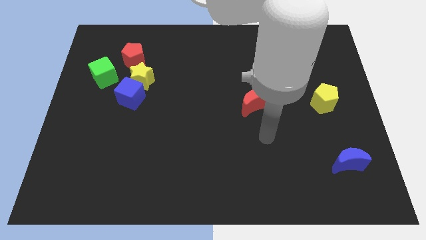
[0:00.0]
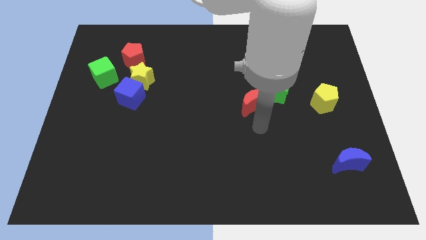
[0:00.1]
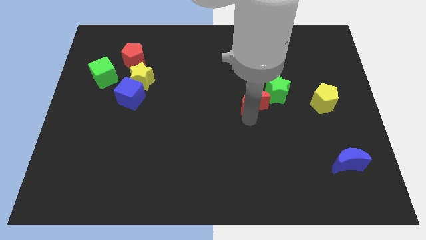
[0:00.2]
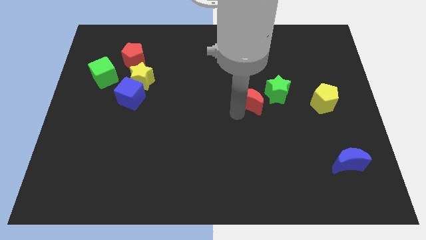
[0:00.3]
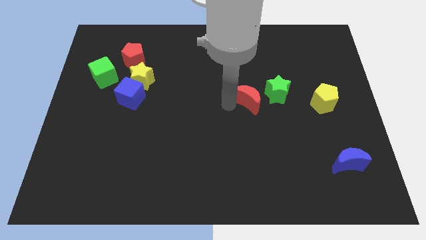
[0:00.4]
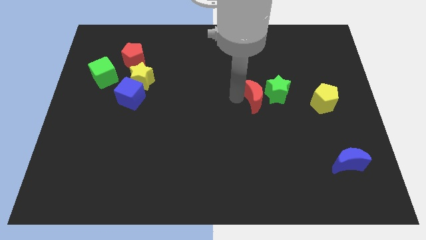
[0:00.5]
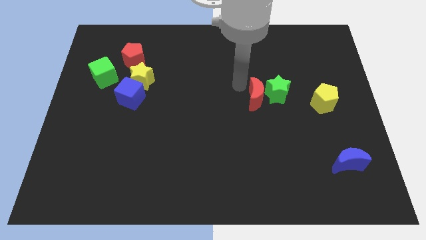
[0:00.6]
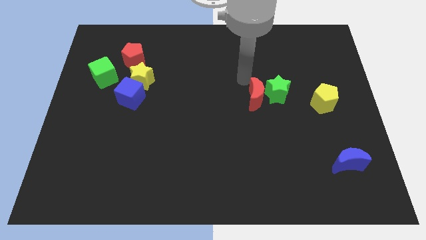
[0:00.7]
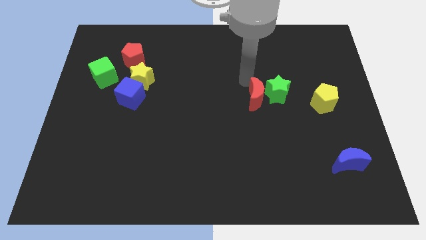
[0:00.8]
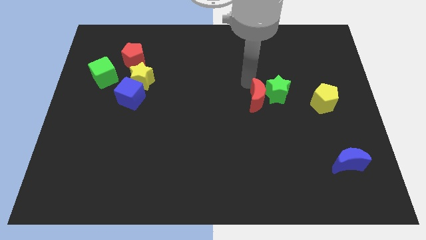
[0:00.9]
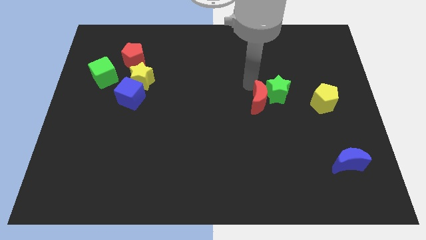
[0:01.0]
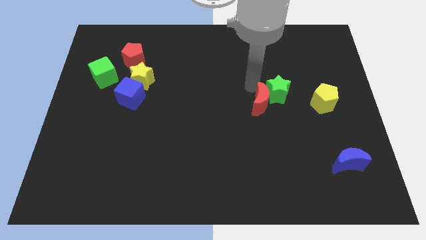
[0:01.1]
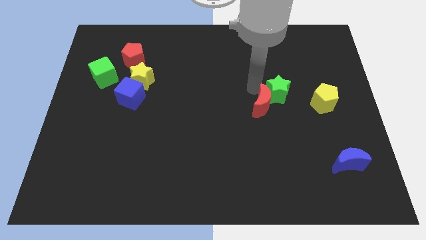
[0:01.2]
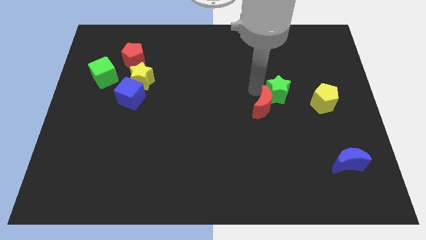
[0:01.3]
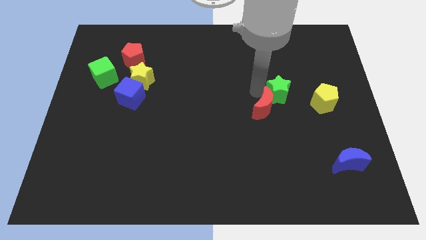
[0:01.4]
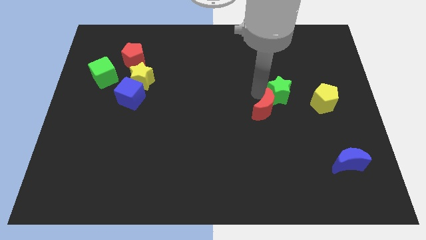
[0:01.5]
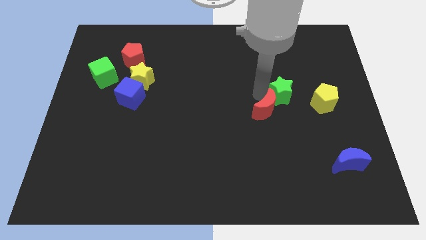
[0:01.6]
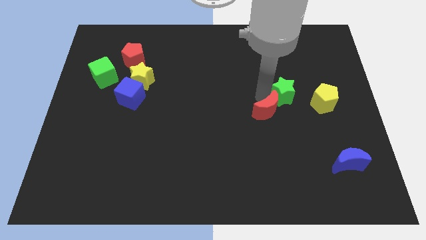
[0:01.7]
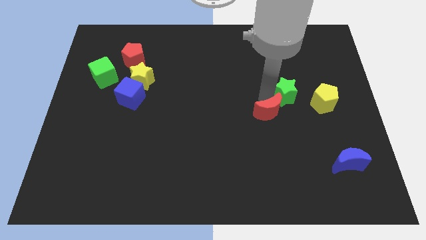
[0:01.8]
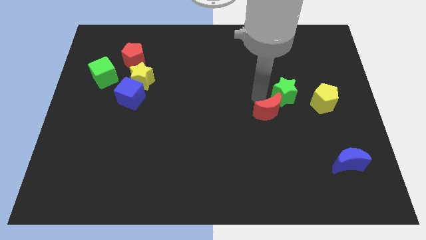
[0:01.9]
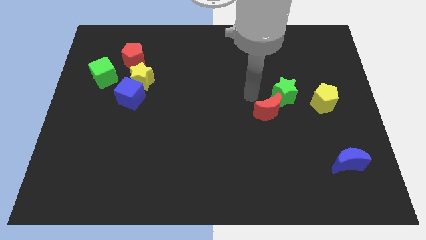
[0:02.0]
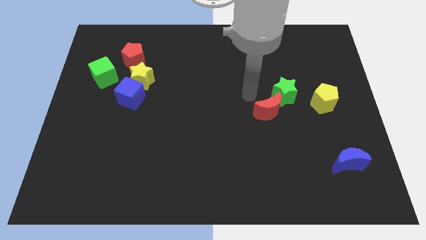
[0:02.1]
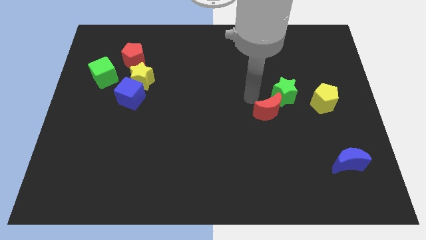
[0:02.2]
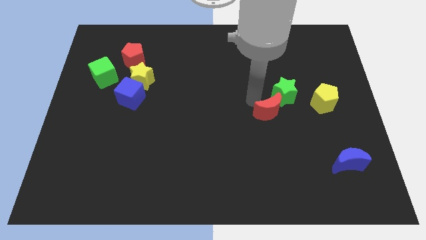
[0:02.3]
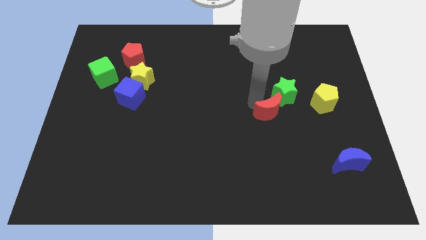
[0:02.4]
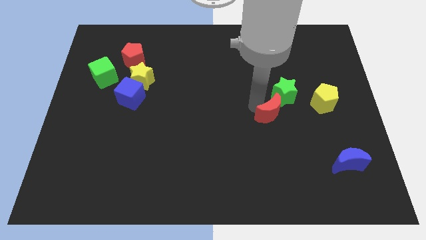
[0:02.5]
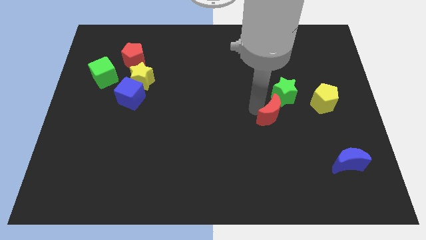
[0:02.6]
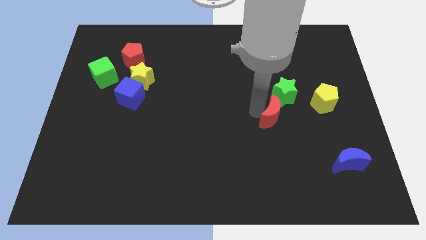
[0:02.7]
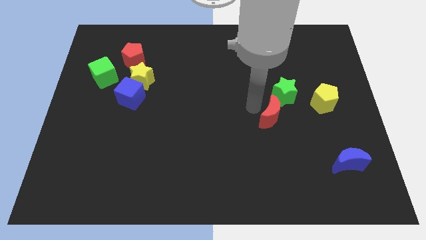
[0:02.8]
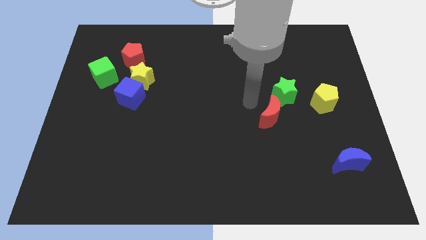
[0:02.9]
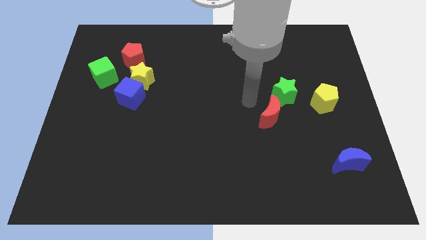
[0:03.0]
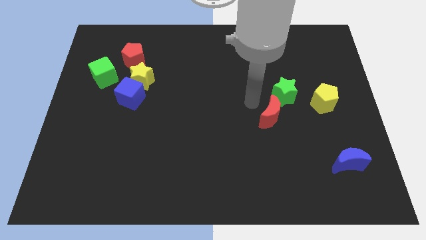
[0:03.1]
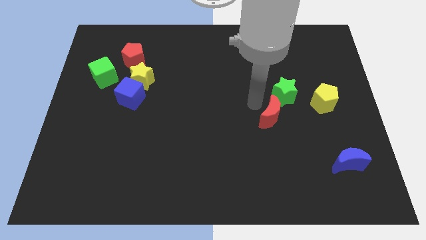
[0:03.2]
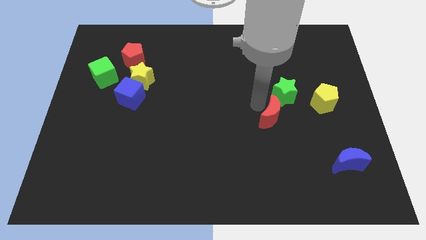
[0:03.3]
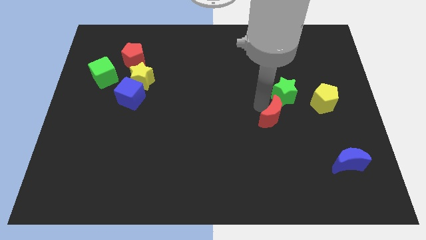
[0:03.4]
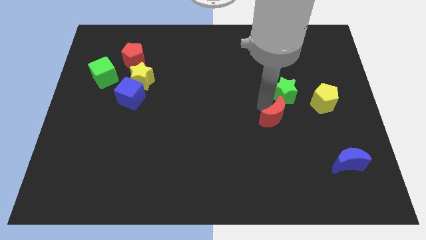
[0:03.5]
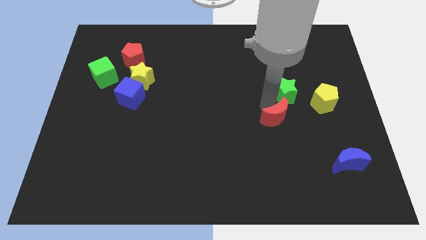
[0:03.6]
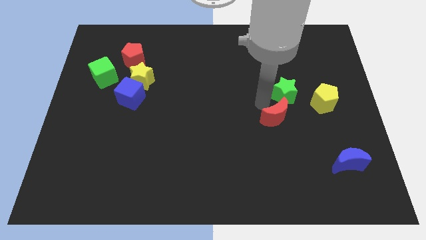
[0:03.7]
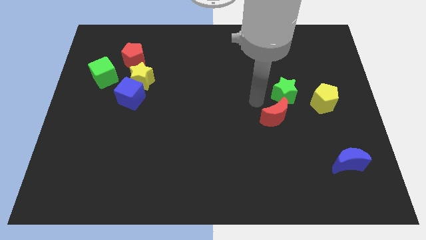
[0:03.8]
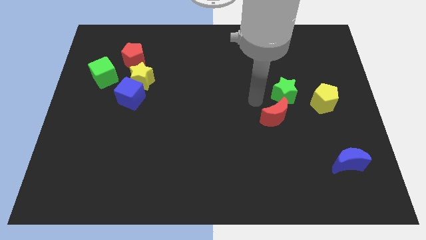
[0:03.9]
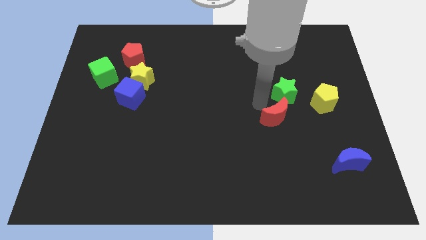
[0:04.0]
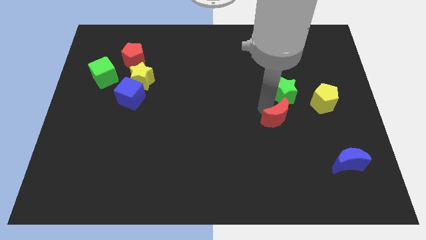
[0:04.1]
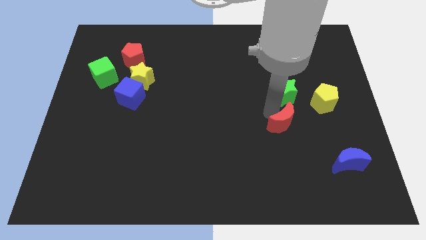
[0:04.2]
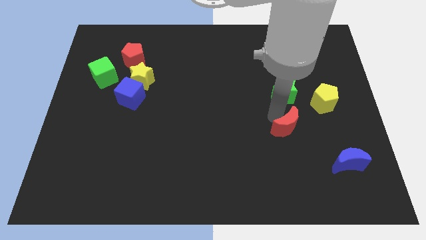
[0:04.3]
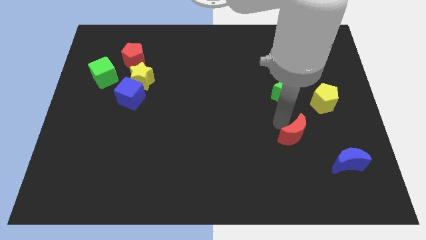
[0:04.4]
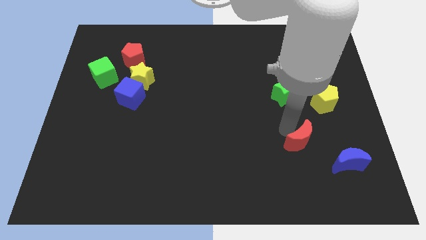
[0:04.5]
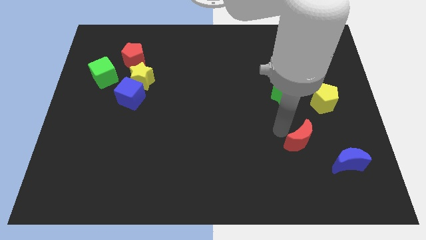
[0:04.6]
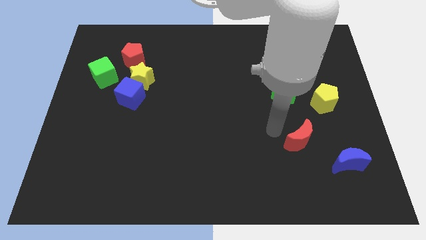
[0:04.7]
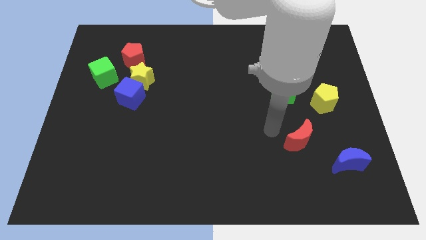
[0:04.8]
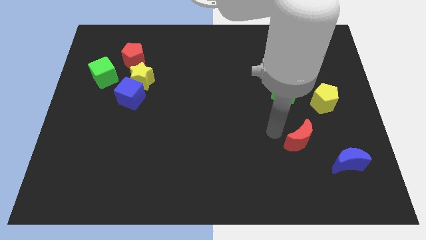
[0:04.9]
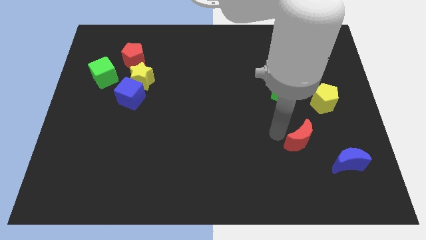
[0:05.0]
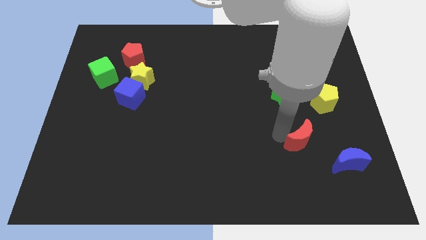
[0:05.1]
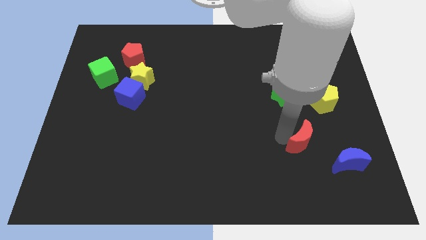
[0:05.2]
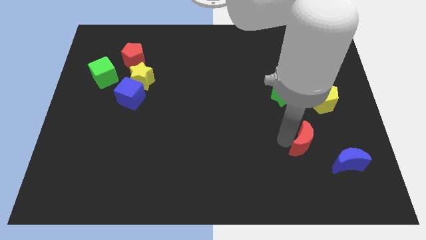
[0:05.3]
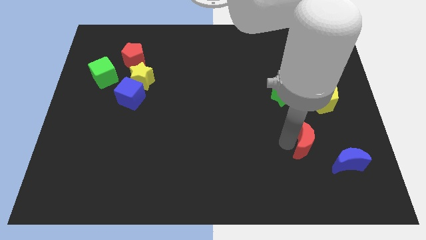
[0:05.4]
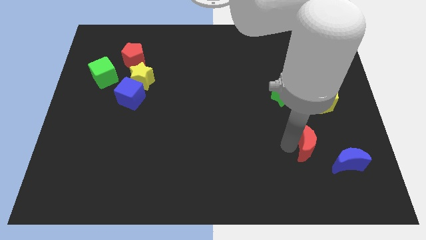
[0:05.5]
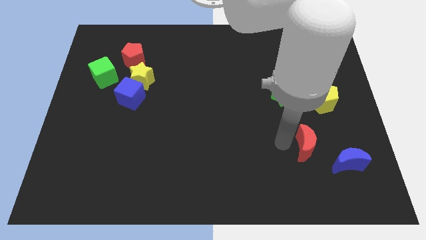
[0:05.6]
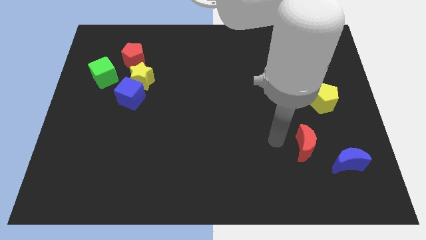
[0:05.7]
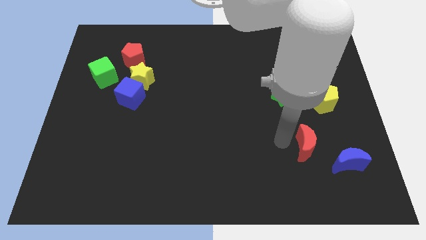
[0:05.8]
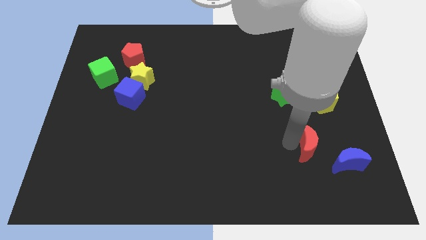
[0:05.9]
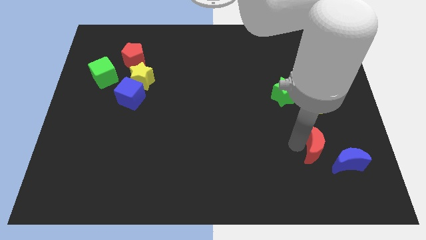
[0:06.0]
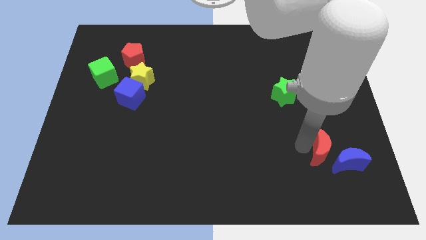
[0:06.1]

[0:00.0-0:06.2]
put the red moon to the blue moon
